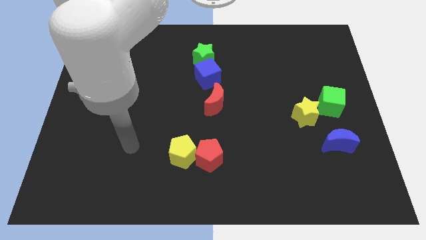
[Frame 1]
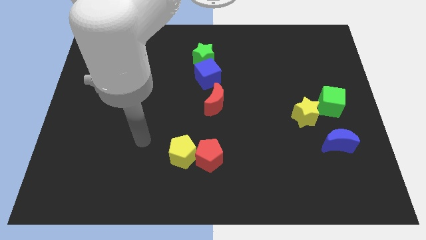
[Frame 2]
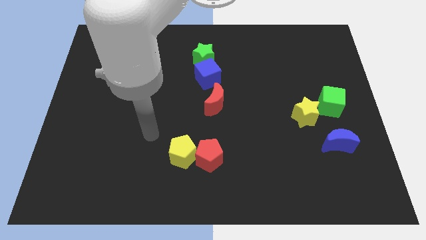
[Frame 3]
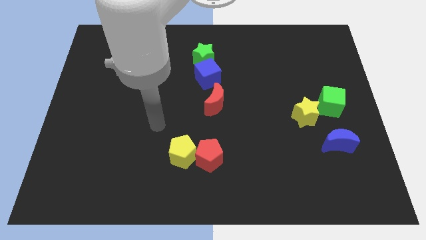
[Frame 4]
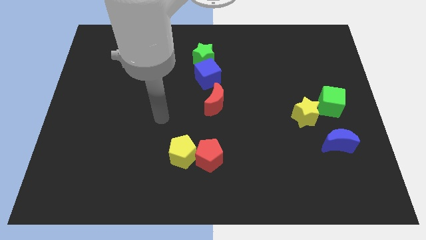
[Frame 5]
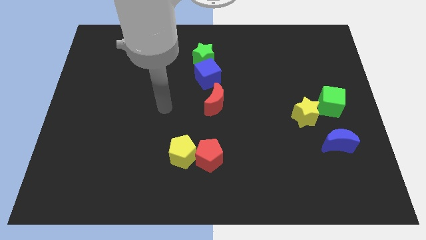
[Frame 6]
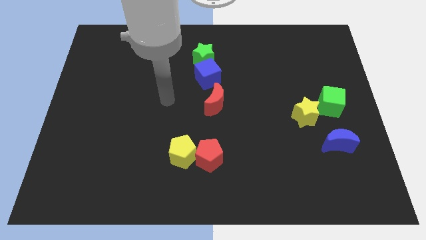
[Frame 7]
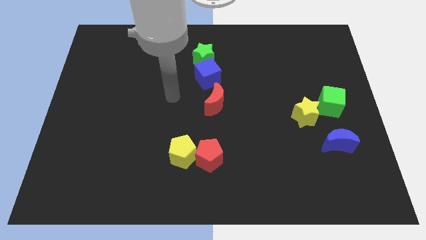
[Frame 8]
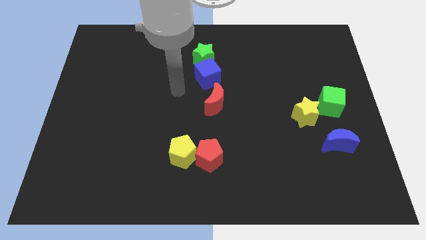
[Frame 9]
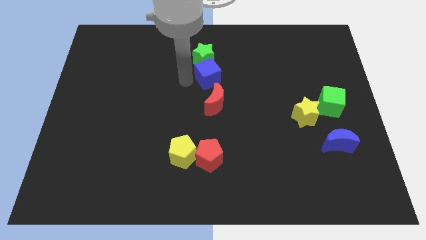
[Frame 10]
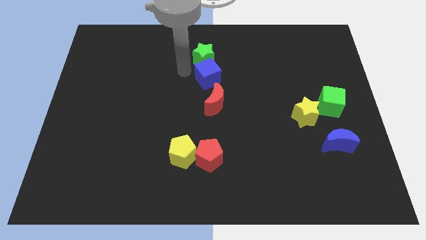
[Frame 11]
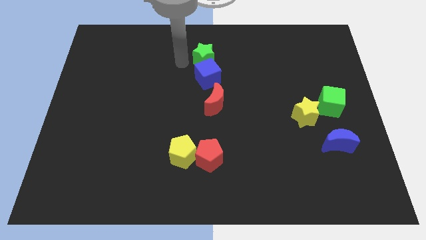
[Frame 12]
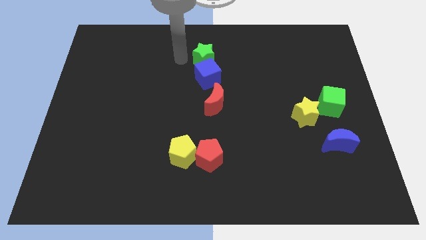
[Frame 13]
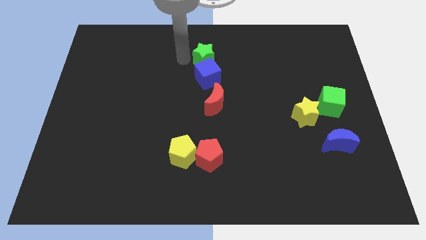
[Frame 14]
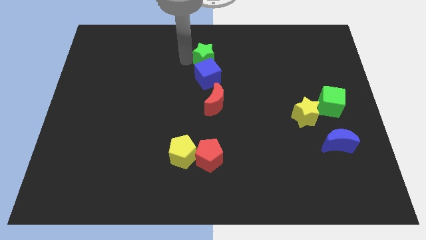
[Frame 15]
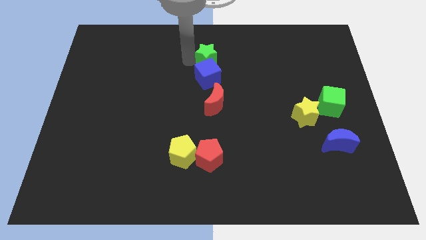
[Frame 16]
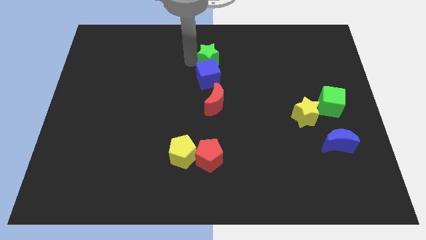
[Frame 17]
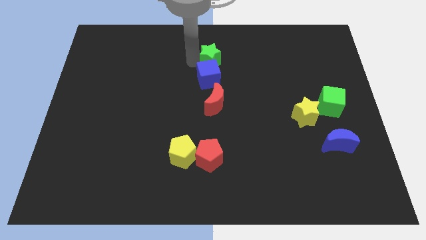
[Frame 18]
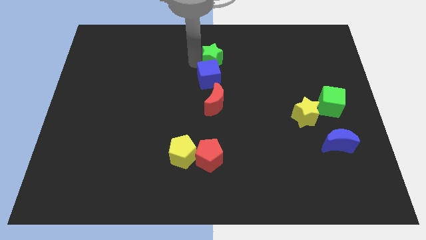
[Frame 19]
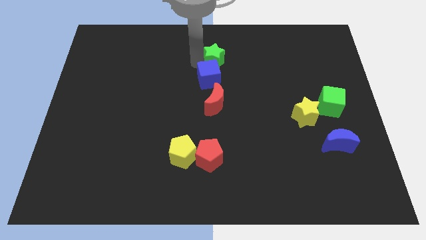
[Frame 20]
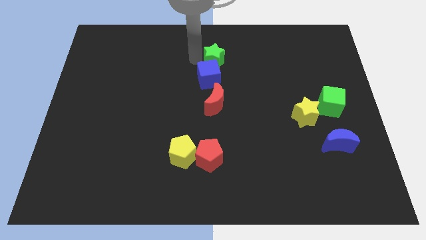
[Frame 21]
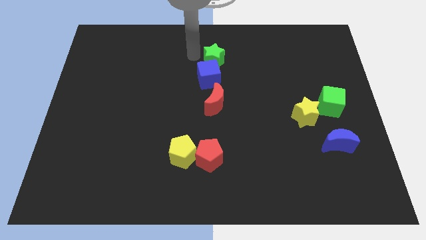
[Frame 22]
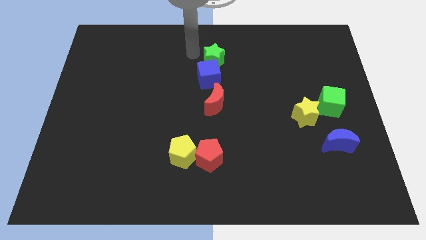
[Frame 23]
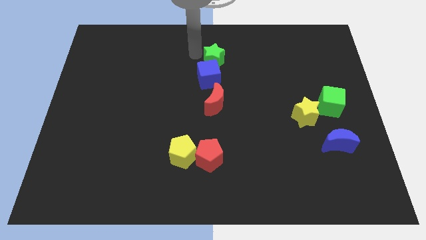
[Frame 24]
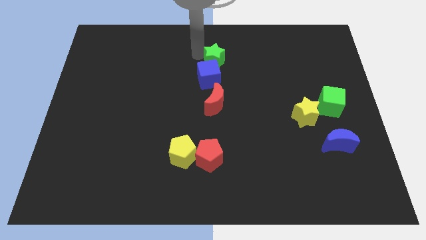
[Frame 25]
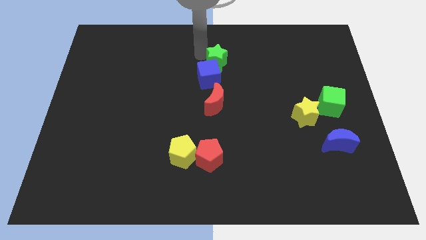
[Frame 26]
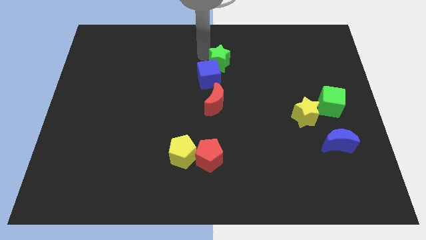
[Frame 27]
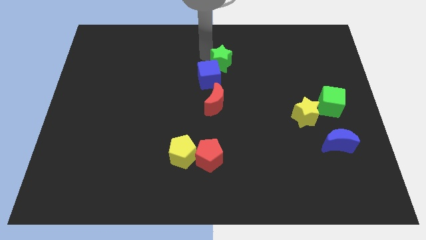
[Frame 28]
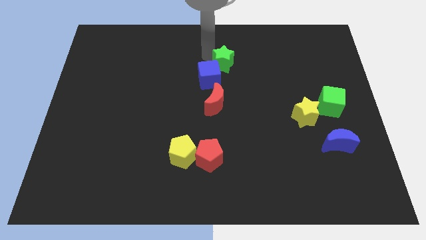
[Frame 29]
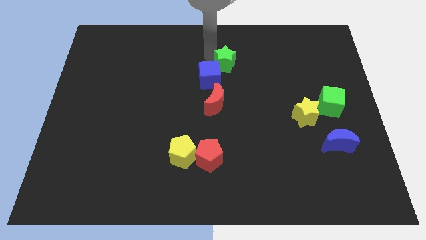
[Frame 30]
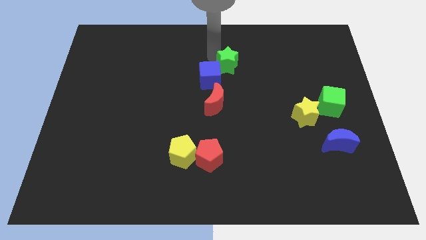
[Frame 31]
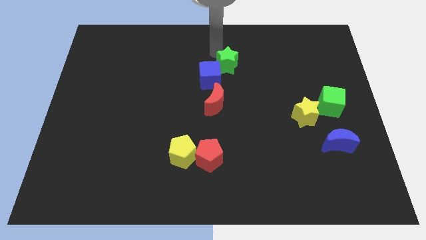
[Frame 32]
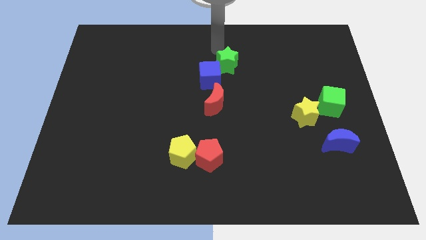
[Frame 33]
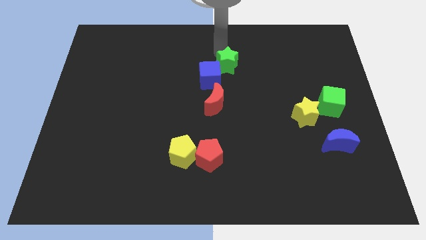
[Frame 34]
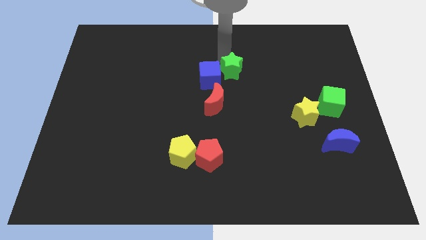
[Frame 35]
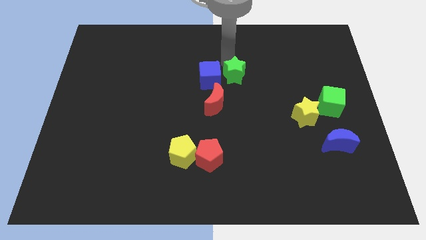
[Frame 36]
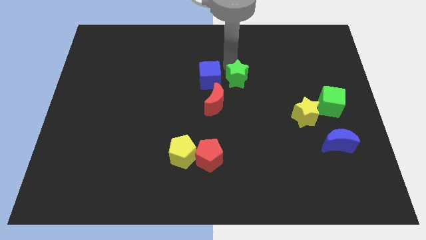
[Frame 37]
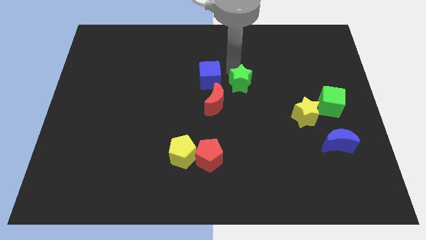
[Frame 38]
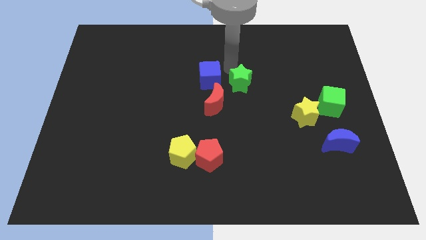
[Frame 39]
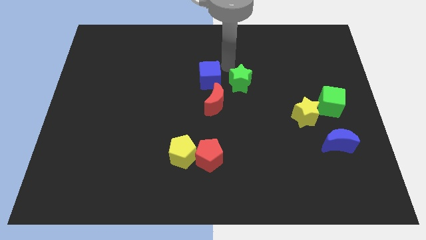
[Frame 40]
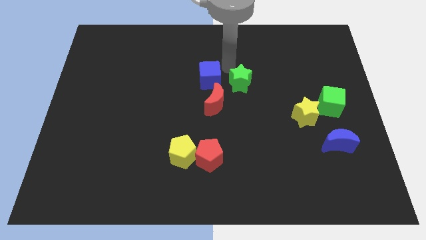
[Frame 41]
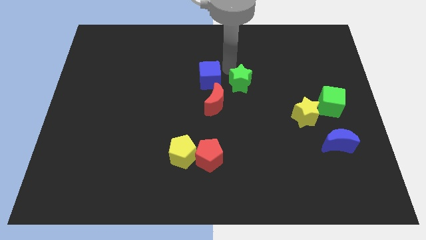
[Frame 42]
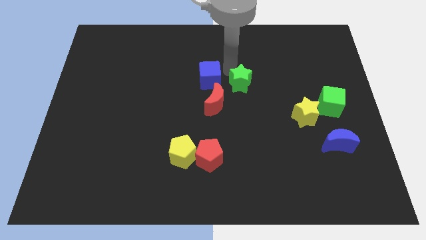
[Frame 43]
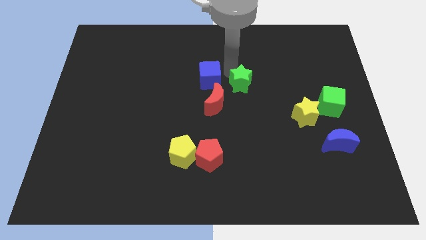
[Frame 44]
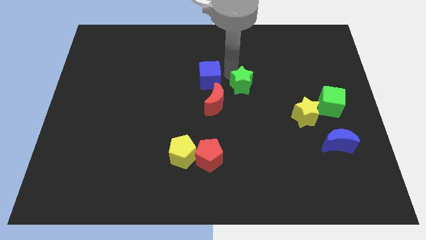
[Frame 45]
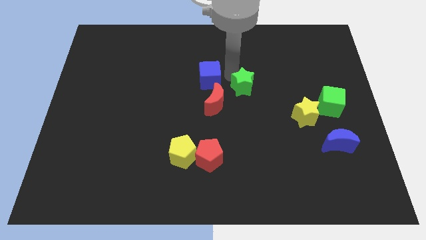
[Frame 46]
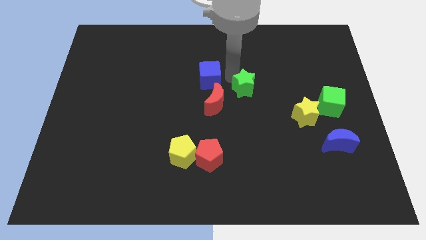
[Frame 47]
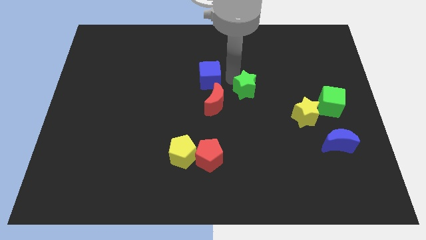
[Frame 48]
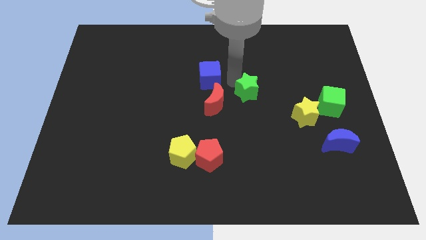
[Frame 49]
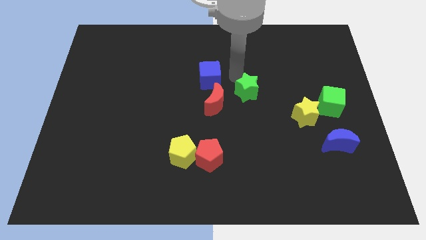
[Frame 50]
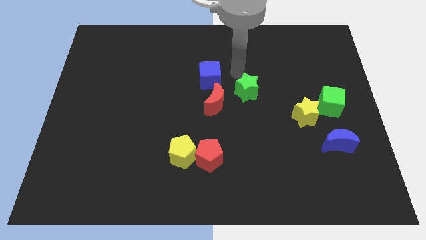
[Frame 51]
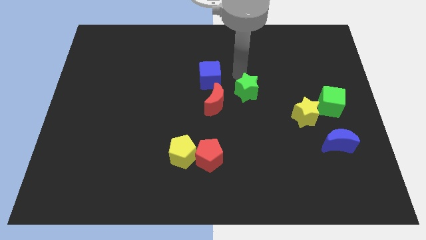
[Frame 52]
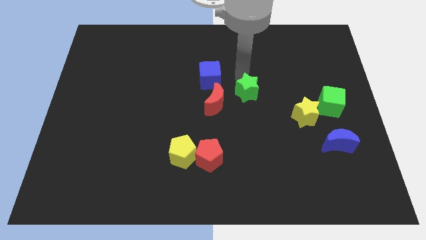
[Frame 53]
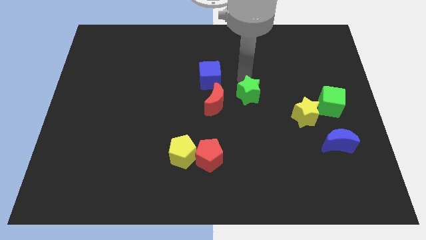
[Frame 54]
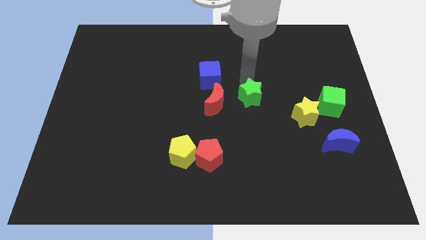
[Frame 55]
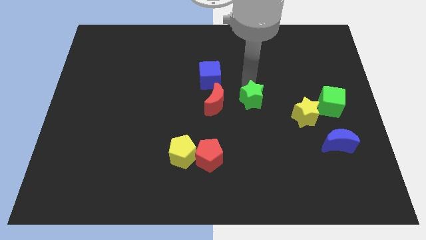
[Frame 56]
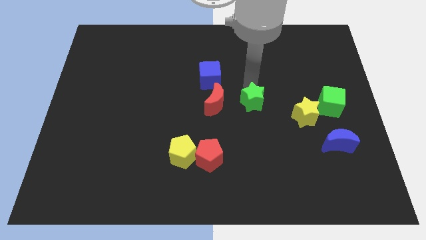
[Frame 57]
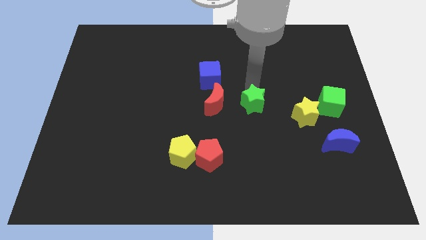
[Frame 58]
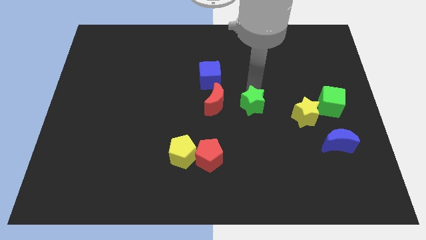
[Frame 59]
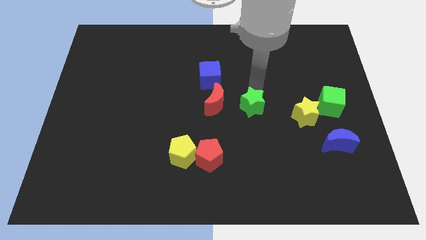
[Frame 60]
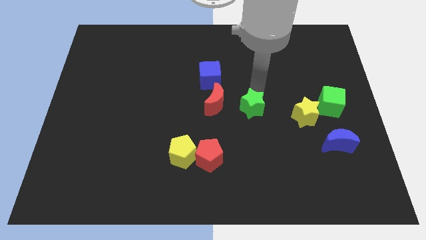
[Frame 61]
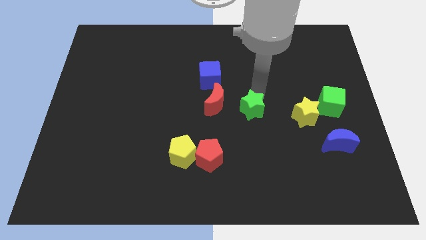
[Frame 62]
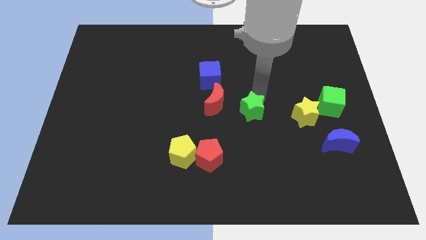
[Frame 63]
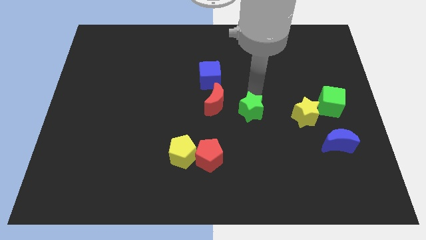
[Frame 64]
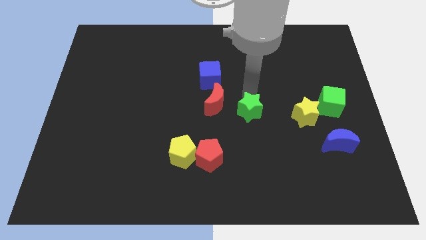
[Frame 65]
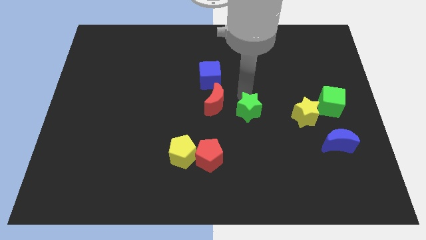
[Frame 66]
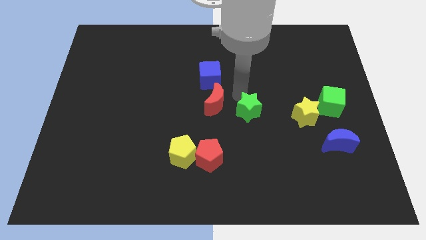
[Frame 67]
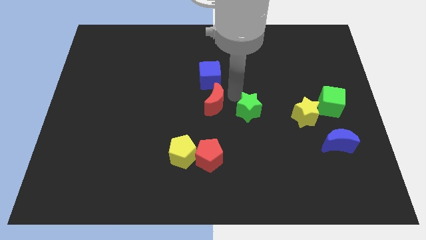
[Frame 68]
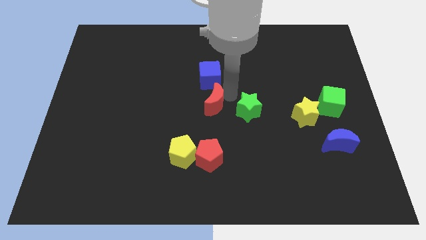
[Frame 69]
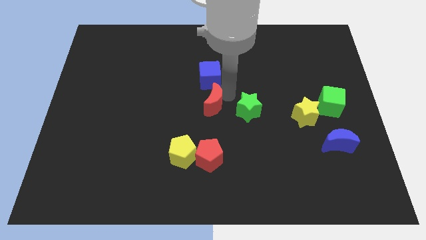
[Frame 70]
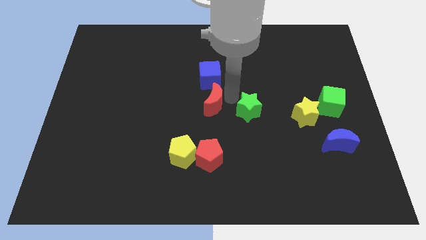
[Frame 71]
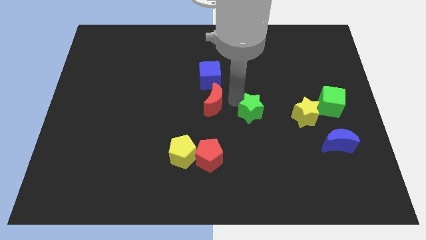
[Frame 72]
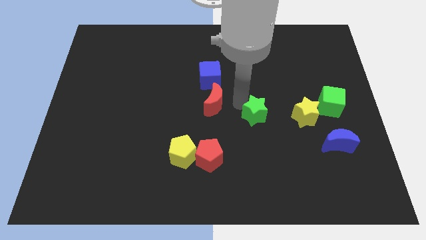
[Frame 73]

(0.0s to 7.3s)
move the green star down and then right

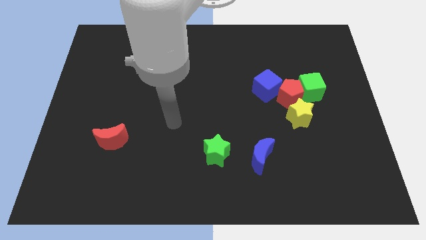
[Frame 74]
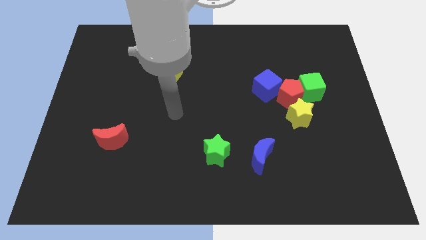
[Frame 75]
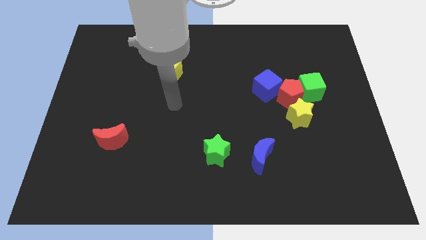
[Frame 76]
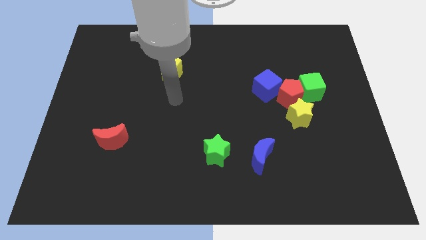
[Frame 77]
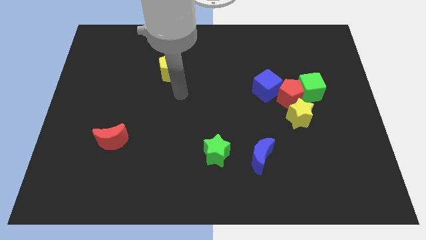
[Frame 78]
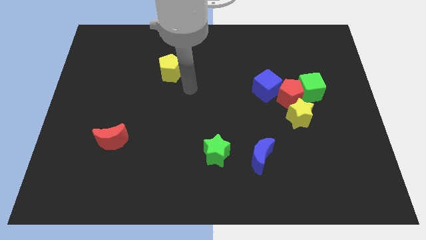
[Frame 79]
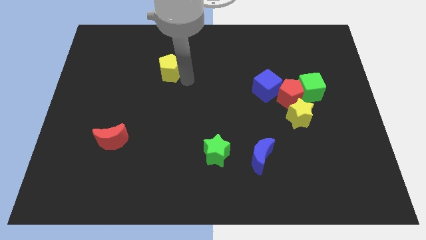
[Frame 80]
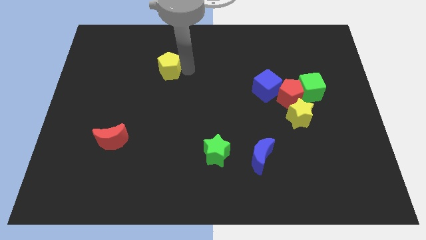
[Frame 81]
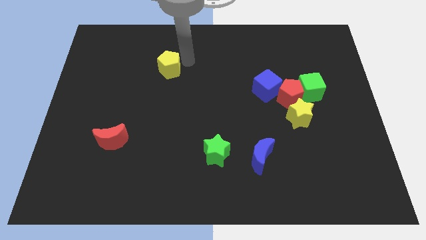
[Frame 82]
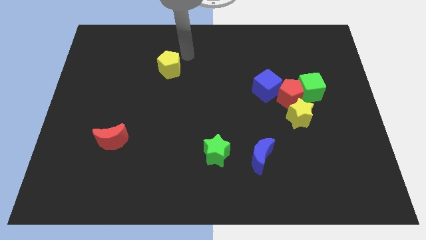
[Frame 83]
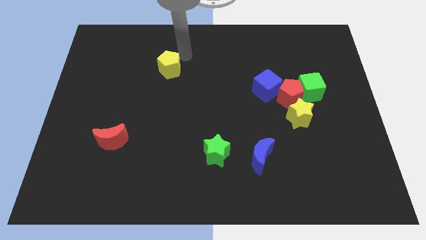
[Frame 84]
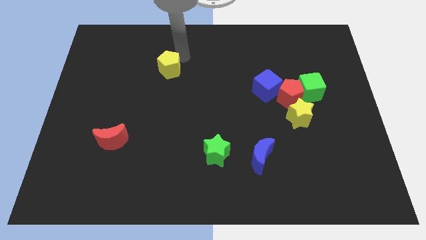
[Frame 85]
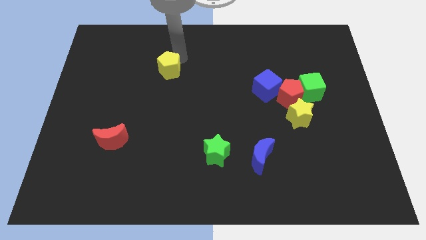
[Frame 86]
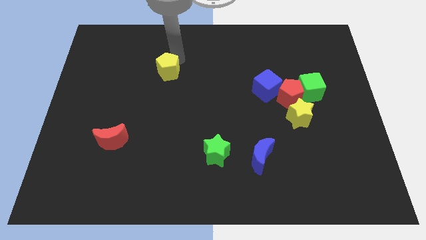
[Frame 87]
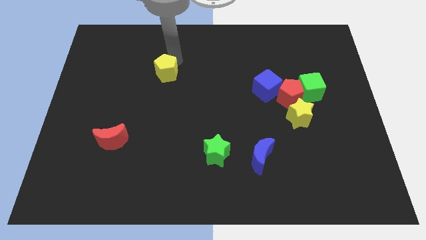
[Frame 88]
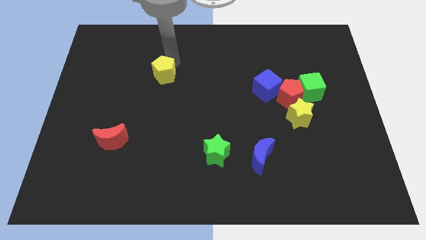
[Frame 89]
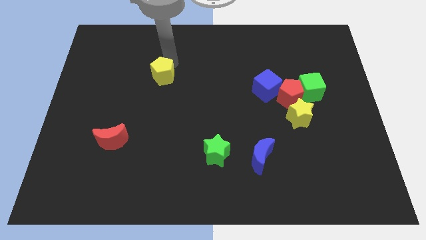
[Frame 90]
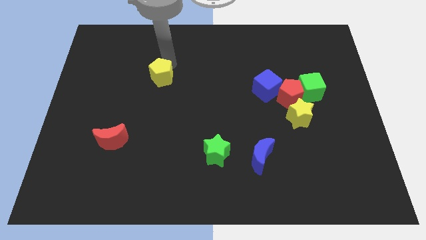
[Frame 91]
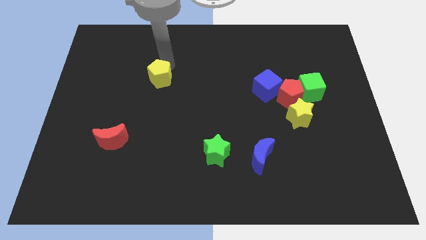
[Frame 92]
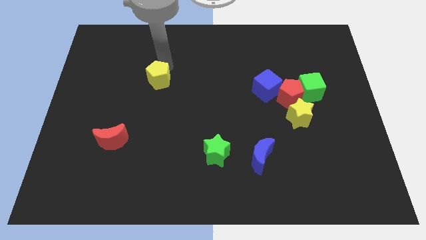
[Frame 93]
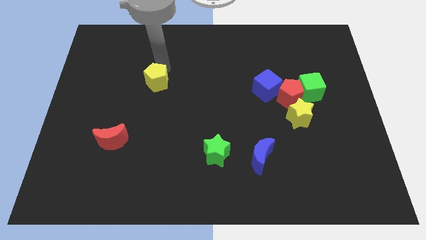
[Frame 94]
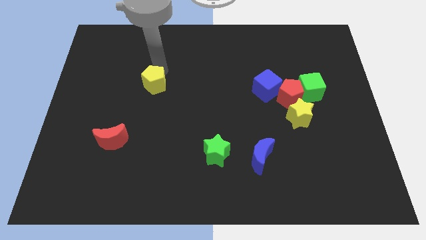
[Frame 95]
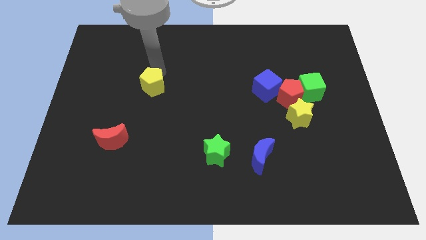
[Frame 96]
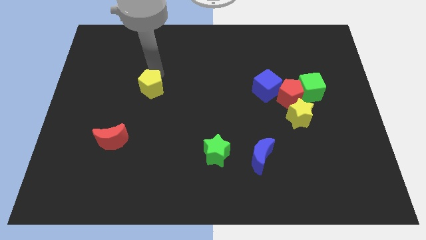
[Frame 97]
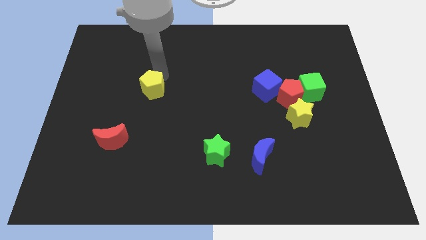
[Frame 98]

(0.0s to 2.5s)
slightly slide the yellow pentagon diagonally down and to the left
